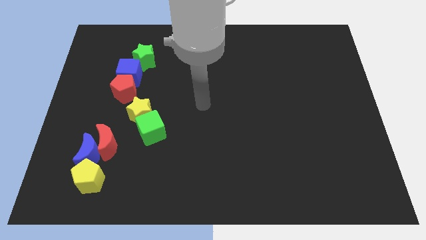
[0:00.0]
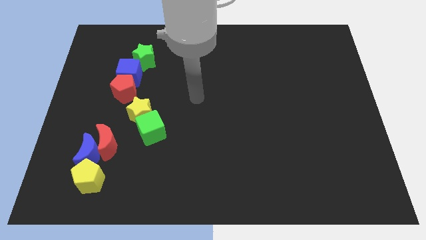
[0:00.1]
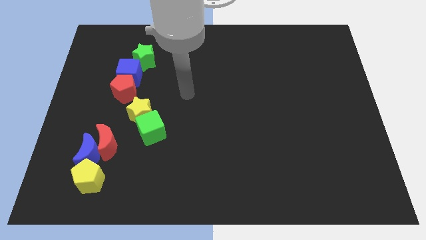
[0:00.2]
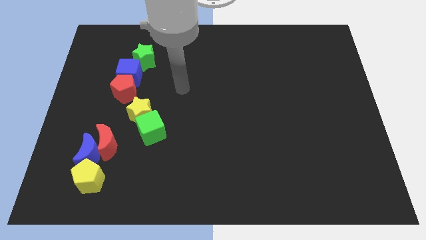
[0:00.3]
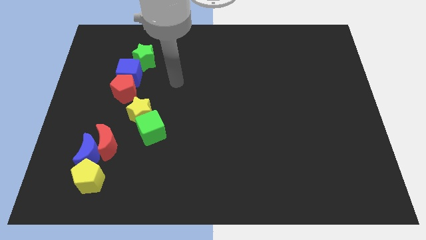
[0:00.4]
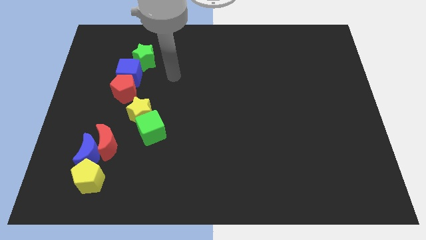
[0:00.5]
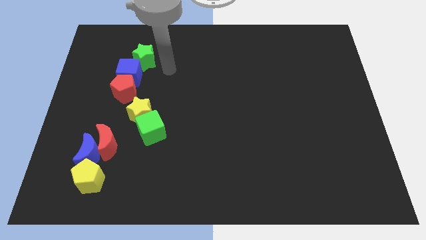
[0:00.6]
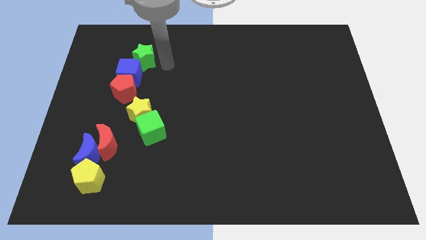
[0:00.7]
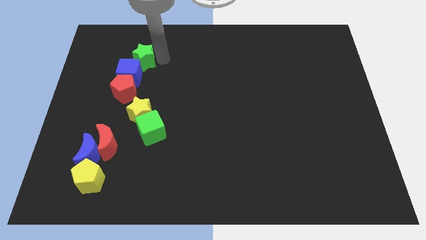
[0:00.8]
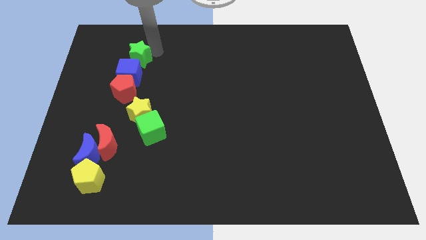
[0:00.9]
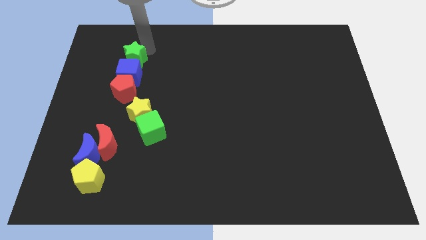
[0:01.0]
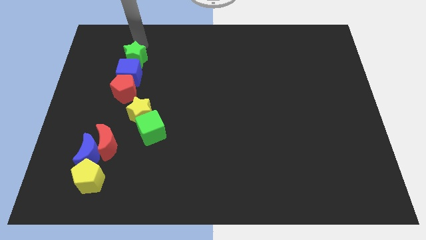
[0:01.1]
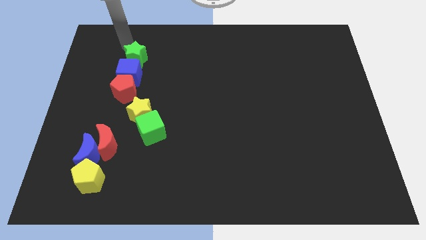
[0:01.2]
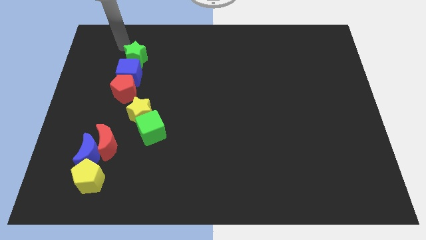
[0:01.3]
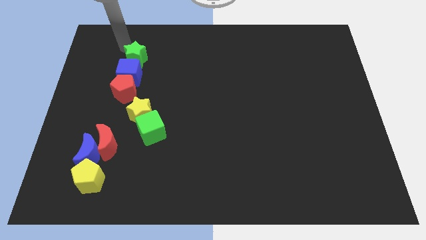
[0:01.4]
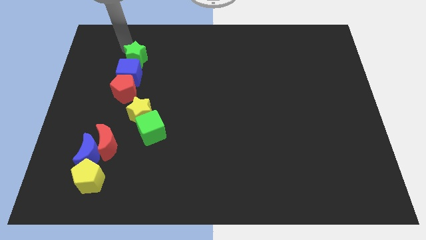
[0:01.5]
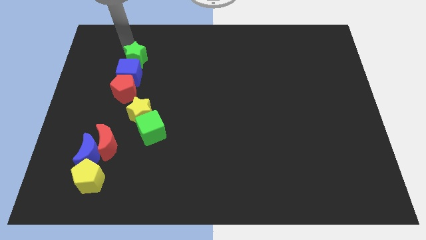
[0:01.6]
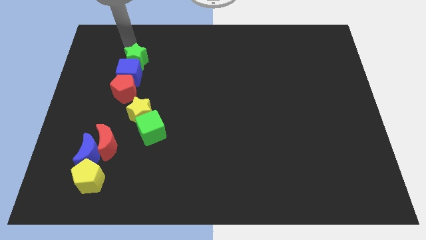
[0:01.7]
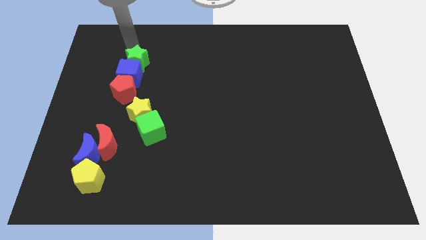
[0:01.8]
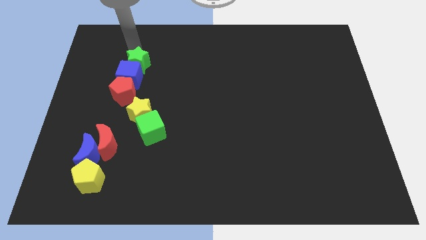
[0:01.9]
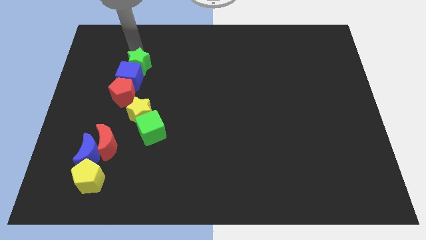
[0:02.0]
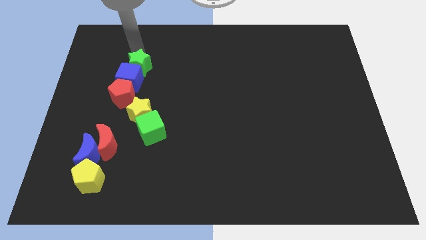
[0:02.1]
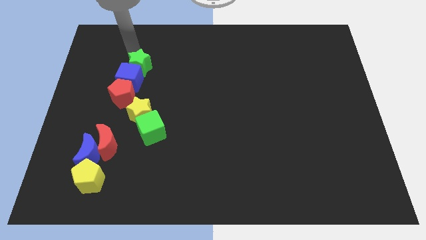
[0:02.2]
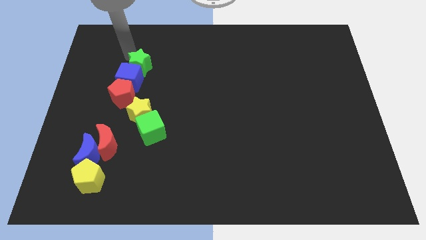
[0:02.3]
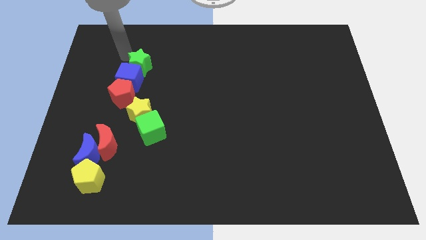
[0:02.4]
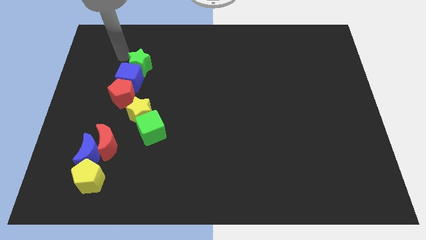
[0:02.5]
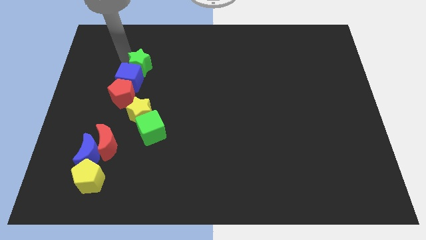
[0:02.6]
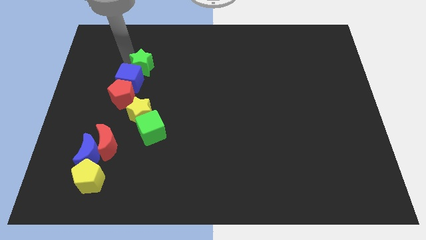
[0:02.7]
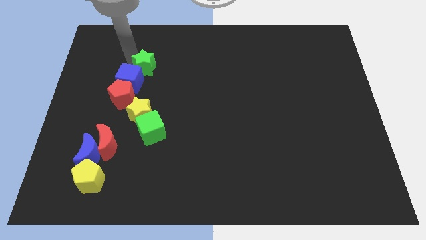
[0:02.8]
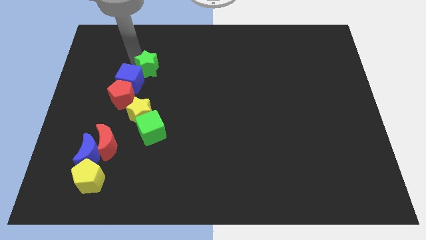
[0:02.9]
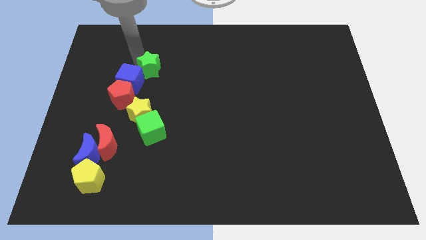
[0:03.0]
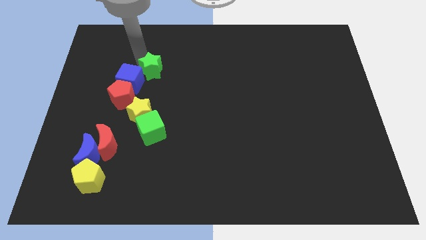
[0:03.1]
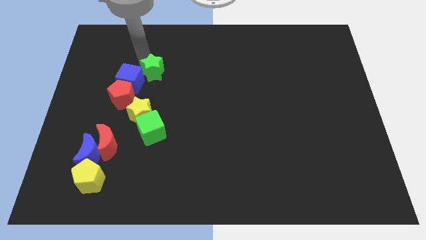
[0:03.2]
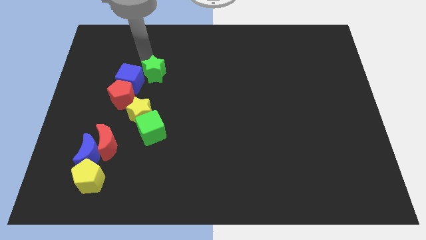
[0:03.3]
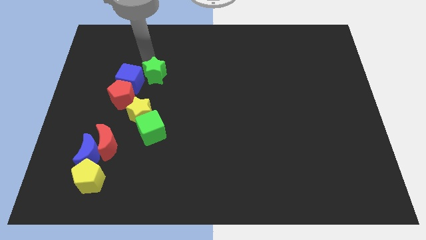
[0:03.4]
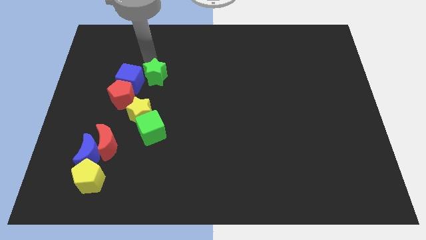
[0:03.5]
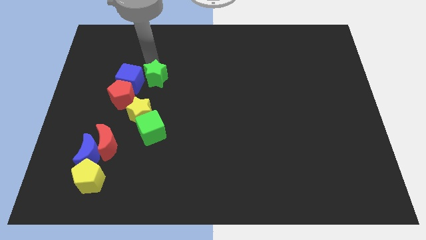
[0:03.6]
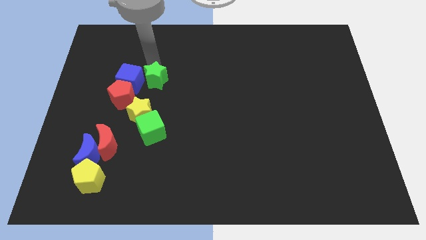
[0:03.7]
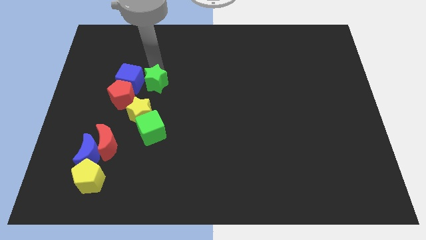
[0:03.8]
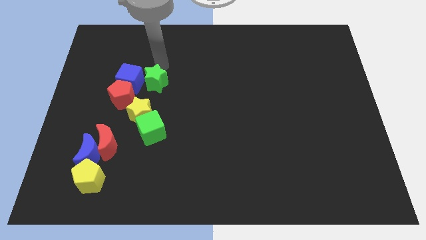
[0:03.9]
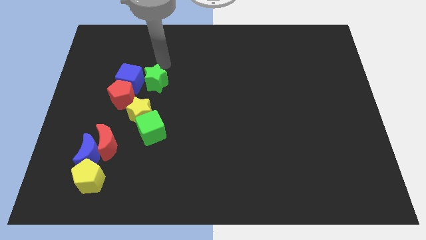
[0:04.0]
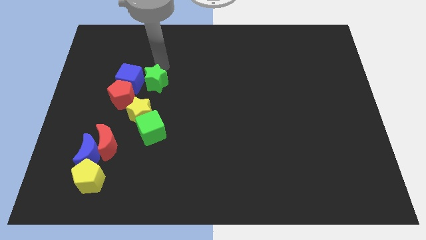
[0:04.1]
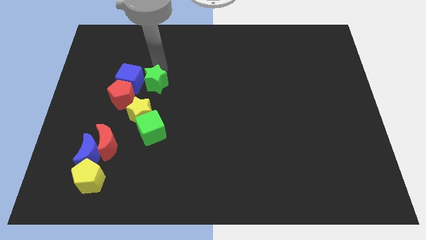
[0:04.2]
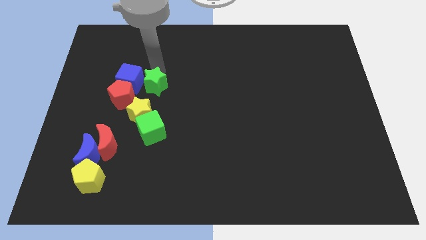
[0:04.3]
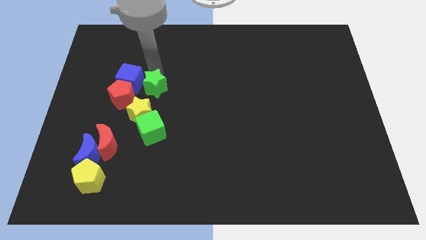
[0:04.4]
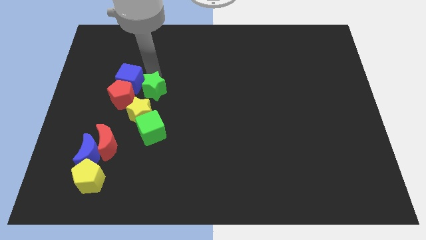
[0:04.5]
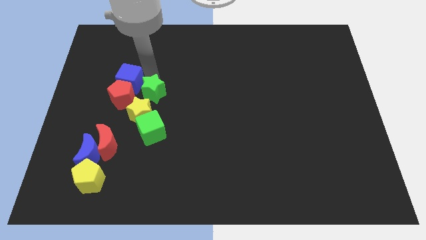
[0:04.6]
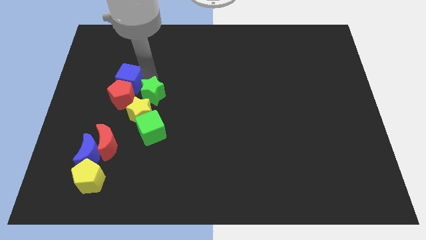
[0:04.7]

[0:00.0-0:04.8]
push the green star close to the yellow star

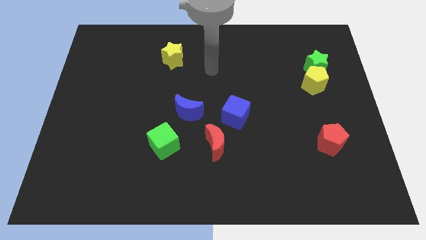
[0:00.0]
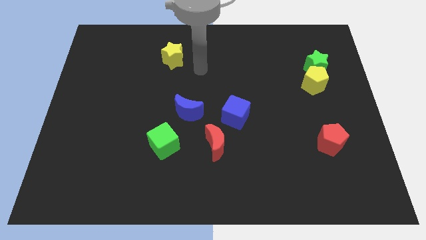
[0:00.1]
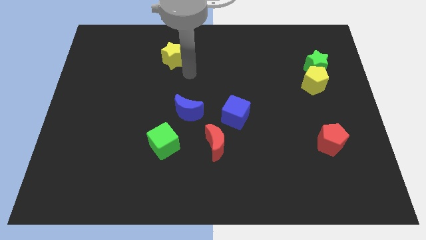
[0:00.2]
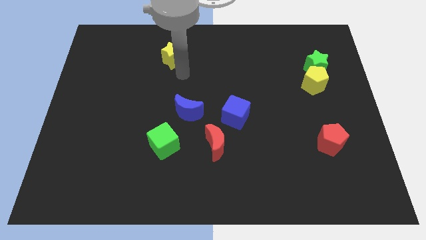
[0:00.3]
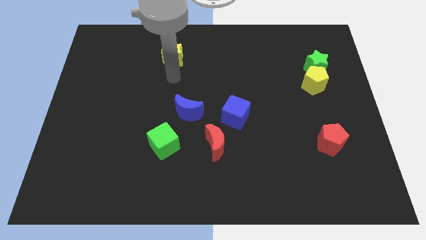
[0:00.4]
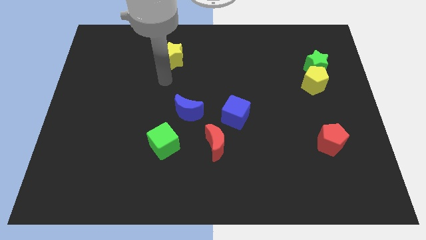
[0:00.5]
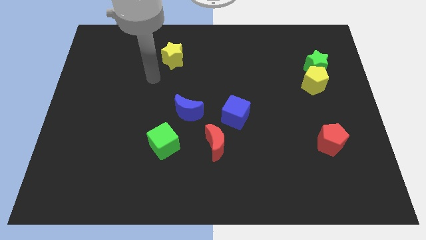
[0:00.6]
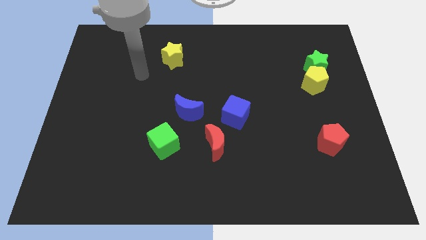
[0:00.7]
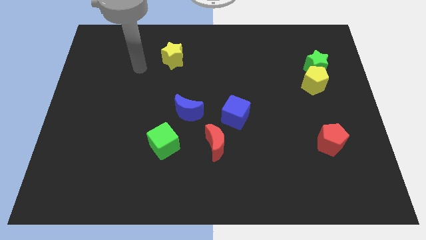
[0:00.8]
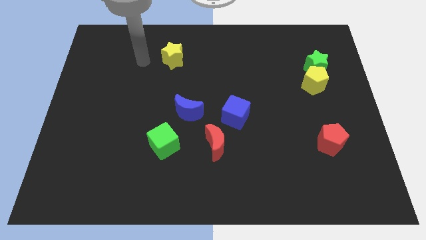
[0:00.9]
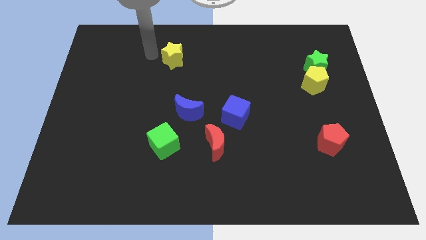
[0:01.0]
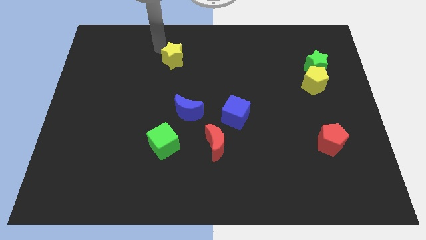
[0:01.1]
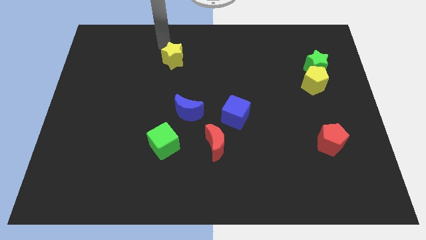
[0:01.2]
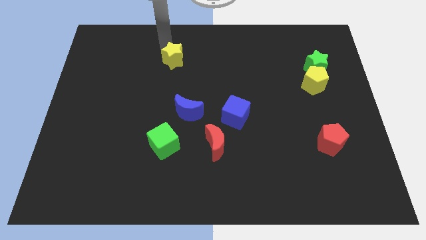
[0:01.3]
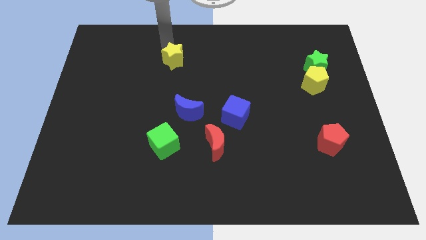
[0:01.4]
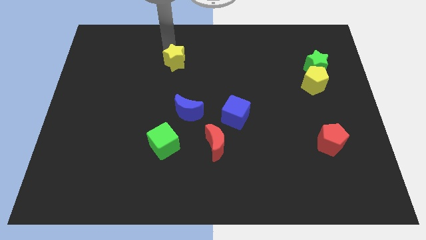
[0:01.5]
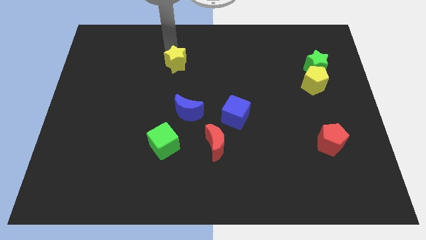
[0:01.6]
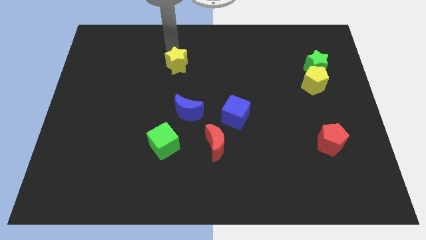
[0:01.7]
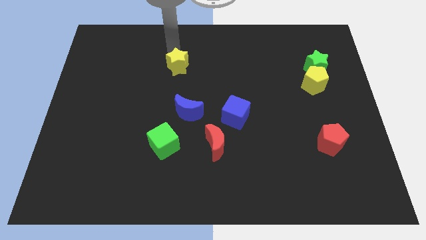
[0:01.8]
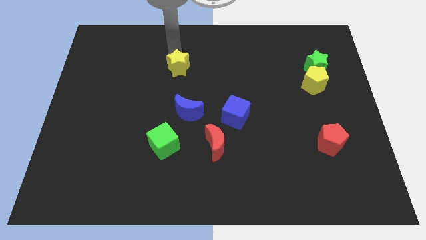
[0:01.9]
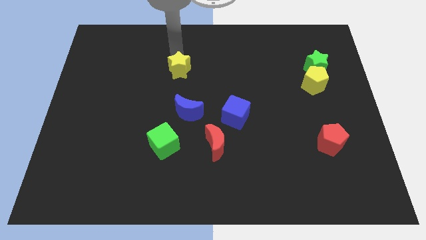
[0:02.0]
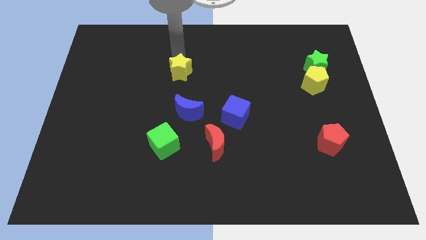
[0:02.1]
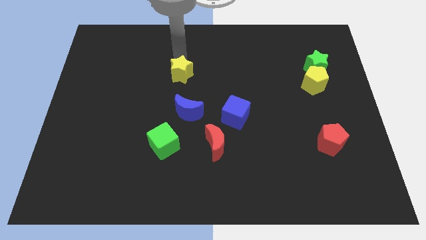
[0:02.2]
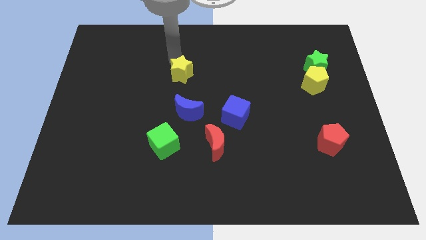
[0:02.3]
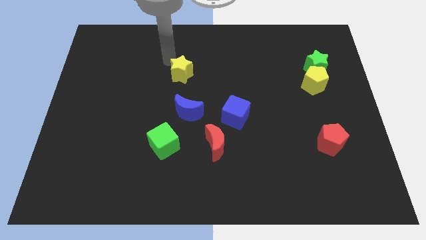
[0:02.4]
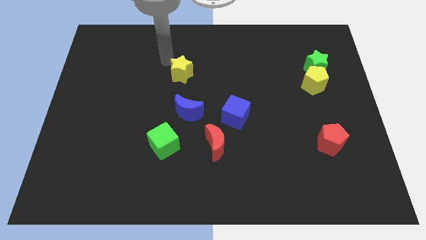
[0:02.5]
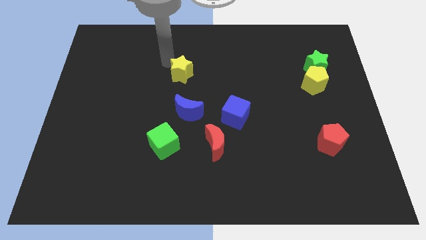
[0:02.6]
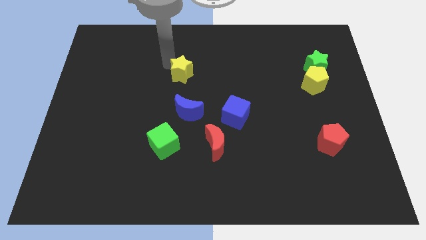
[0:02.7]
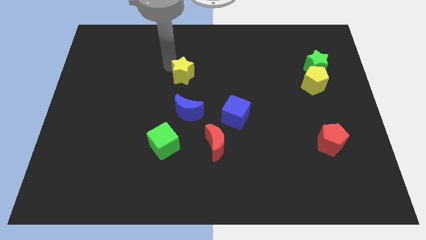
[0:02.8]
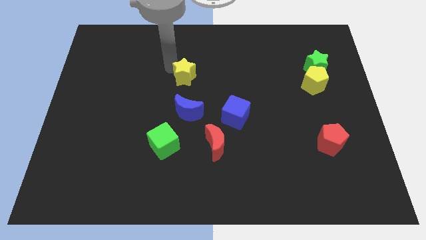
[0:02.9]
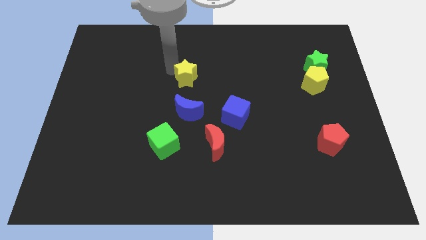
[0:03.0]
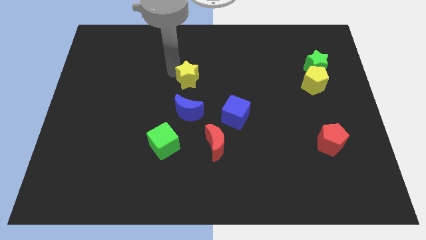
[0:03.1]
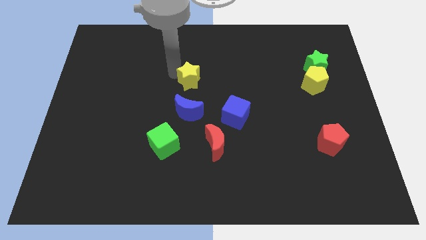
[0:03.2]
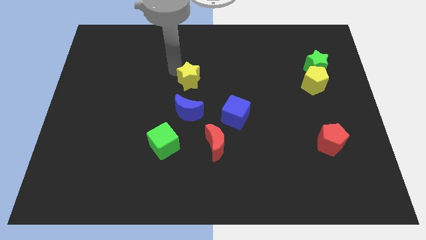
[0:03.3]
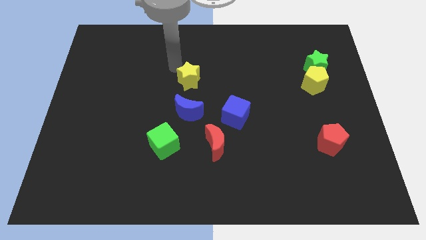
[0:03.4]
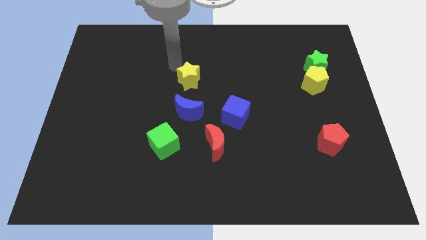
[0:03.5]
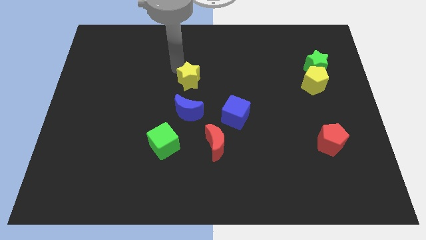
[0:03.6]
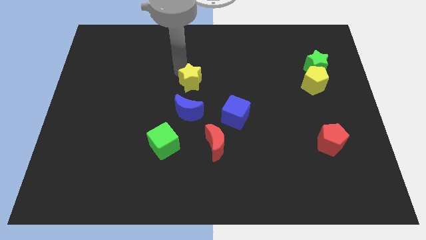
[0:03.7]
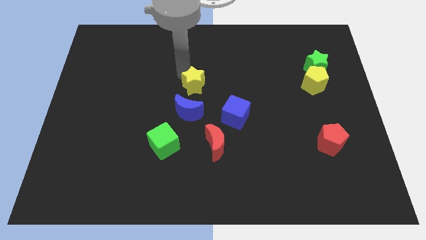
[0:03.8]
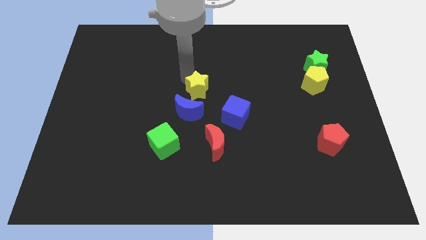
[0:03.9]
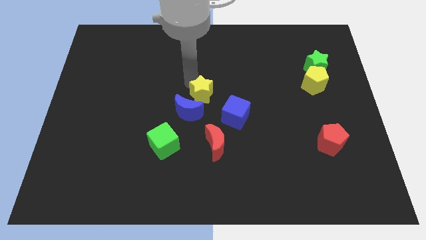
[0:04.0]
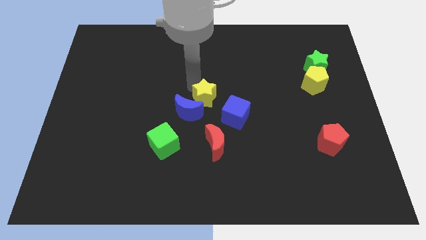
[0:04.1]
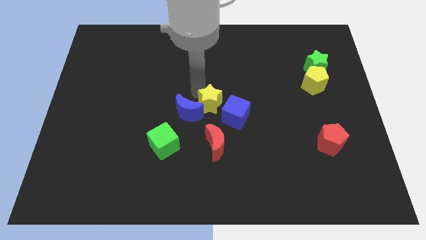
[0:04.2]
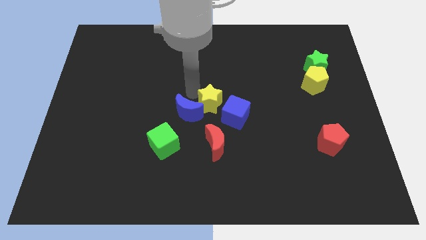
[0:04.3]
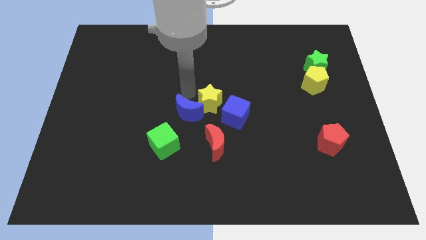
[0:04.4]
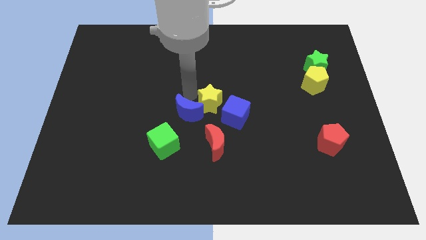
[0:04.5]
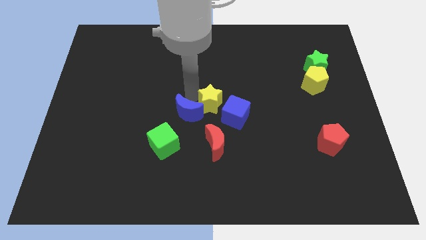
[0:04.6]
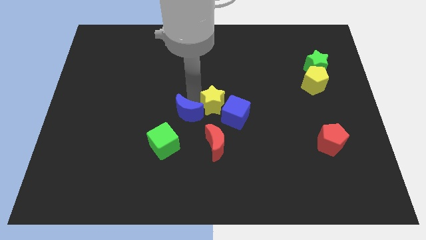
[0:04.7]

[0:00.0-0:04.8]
push the yellow star towards the blue cube
